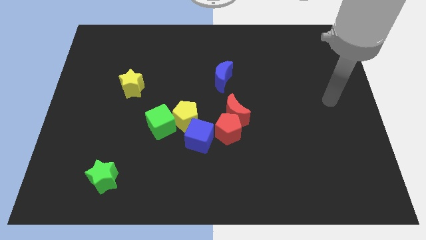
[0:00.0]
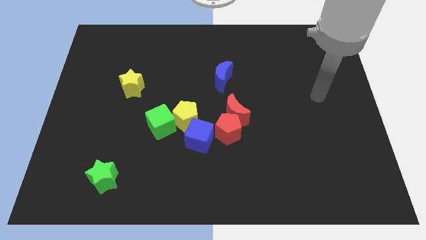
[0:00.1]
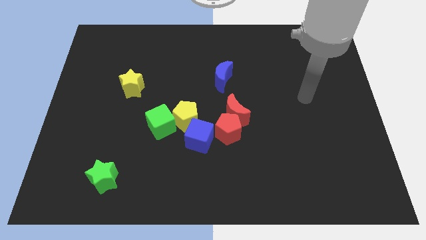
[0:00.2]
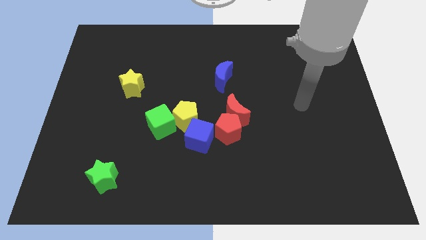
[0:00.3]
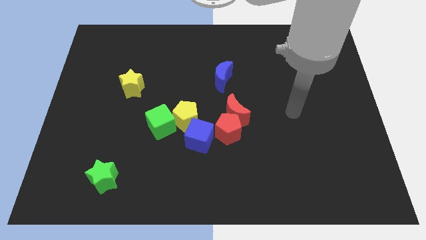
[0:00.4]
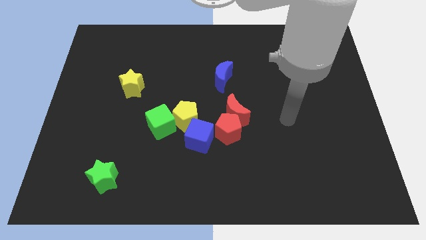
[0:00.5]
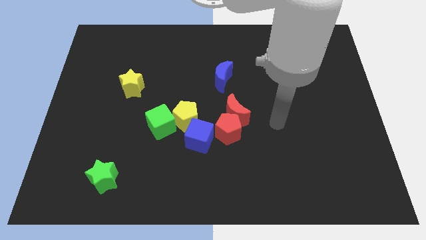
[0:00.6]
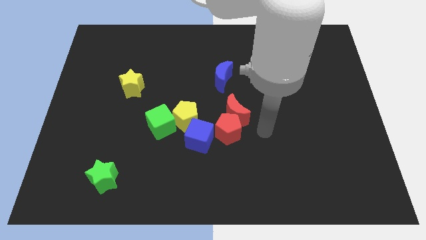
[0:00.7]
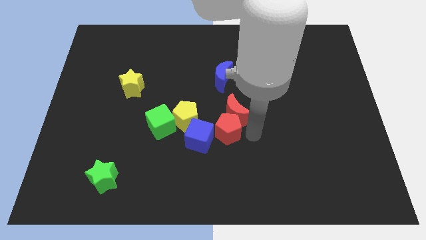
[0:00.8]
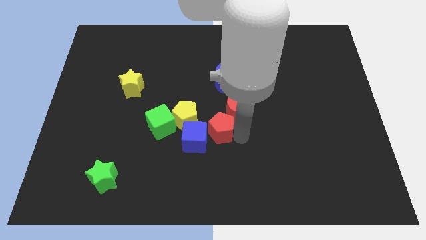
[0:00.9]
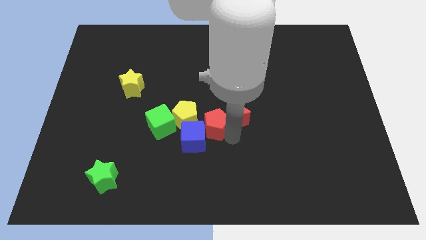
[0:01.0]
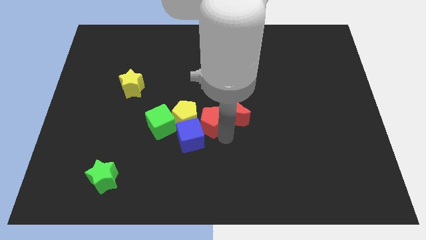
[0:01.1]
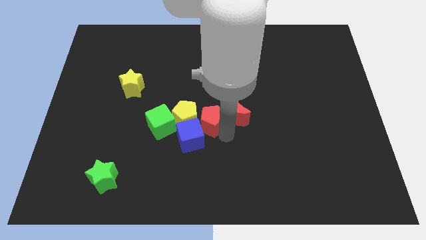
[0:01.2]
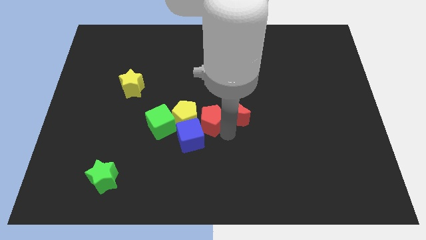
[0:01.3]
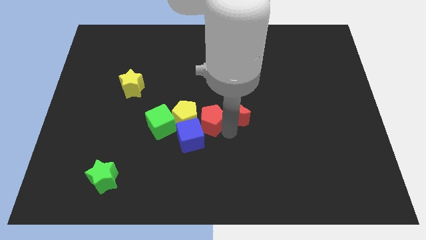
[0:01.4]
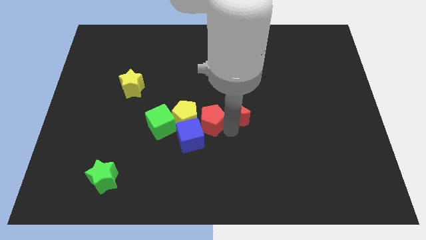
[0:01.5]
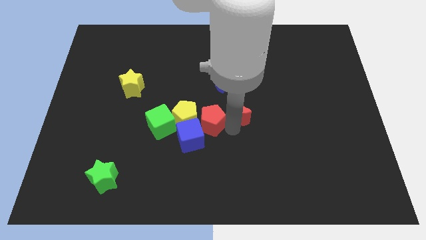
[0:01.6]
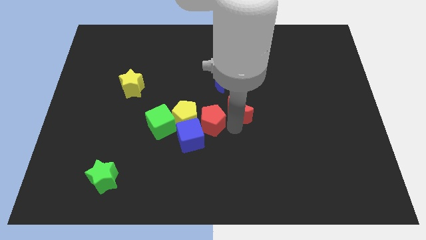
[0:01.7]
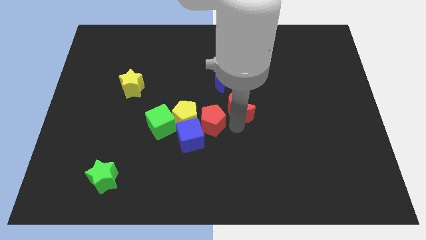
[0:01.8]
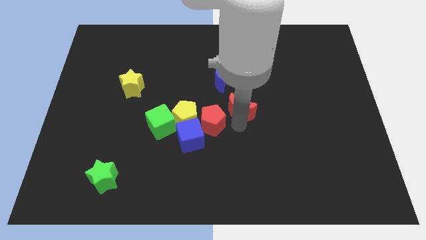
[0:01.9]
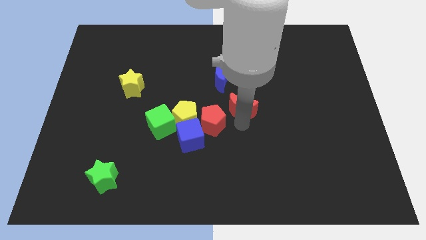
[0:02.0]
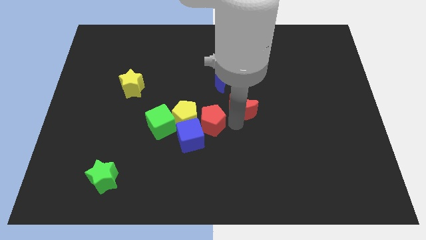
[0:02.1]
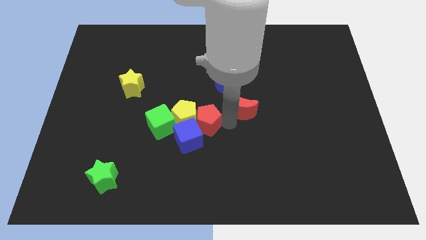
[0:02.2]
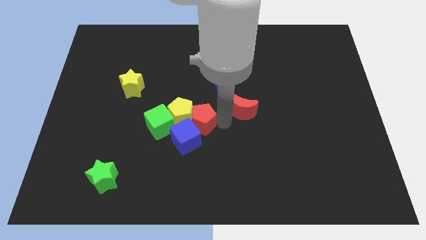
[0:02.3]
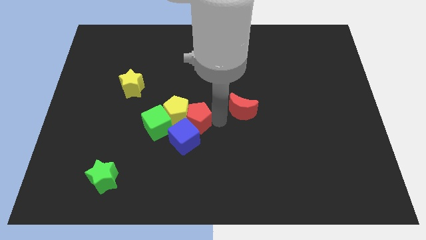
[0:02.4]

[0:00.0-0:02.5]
separate the red moon from the red pentagon

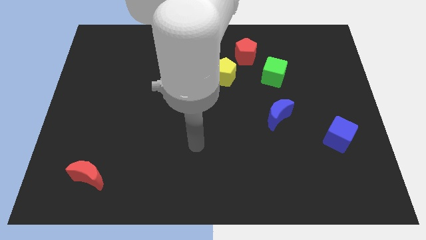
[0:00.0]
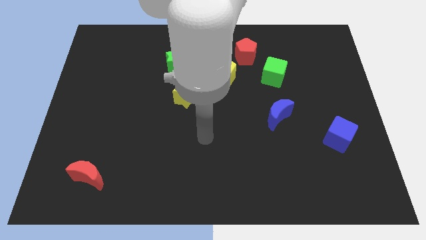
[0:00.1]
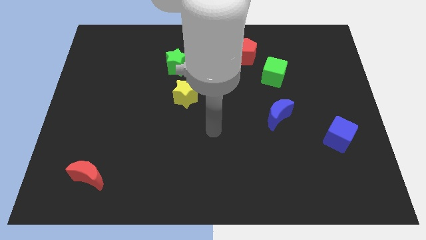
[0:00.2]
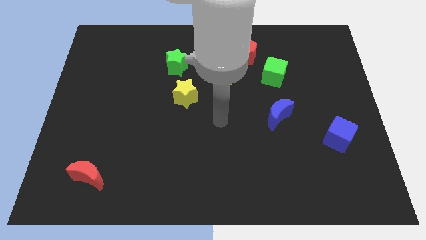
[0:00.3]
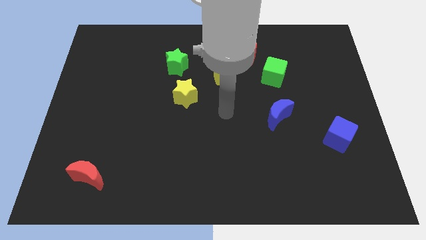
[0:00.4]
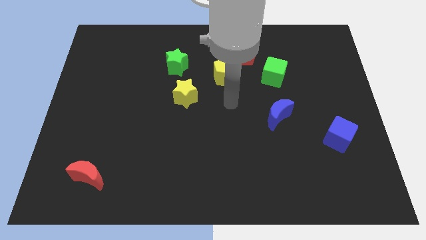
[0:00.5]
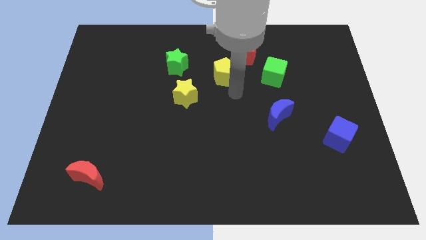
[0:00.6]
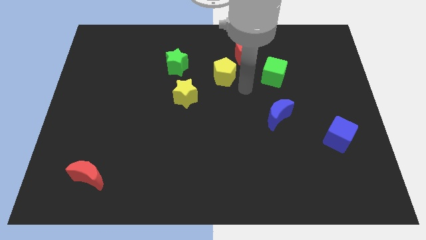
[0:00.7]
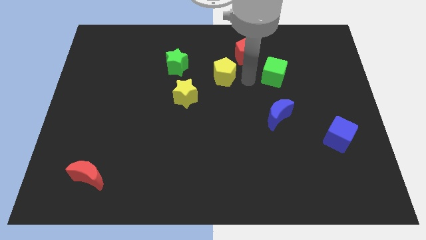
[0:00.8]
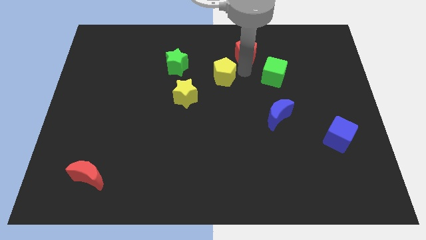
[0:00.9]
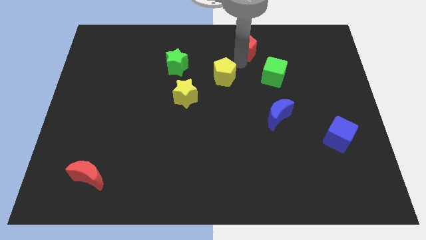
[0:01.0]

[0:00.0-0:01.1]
pull the yellow pentagon apart from the red pentagon

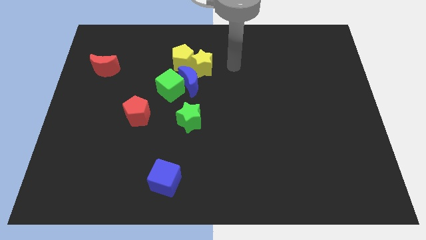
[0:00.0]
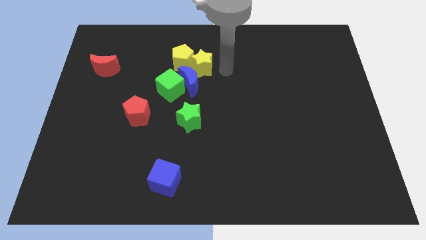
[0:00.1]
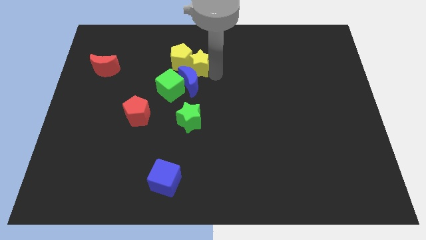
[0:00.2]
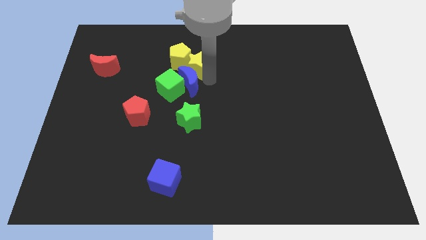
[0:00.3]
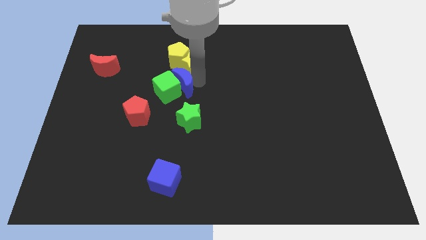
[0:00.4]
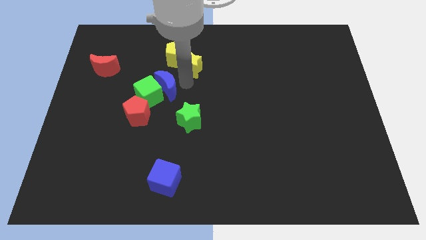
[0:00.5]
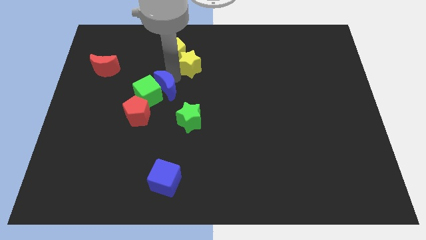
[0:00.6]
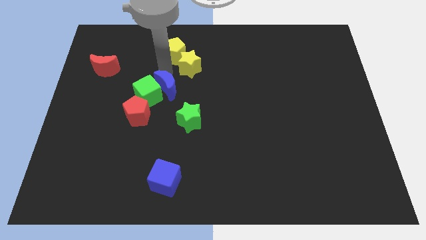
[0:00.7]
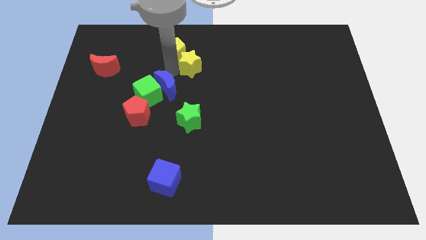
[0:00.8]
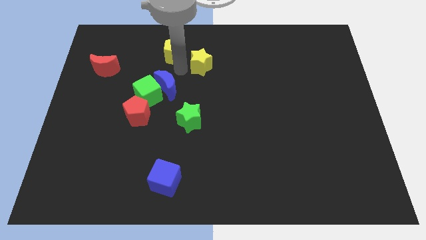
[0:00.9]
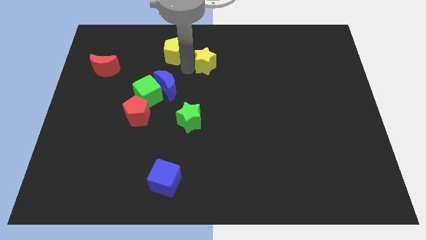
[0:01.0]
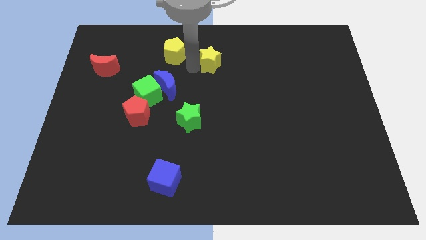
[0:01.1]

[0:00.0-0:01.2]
move the yellow star away from the yellow pentagon and blue moon

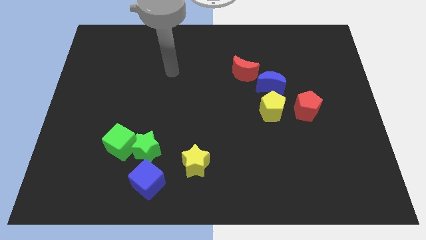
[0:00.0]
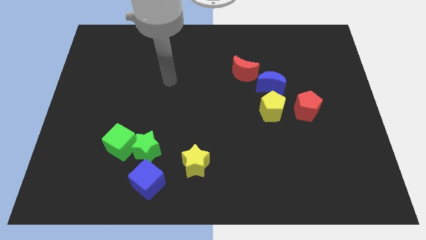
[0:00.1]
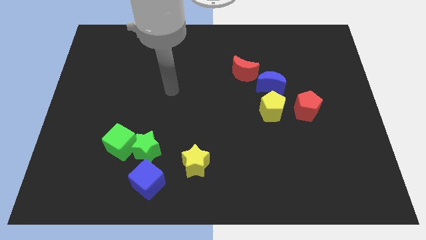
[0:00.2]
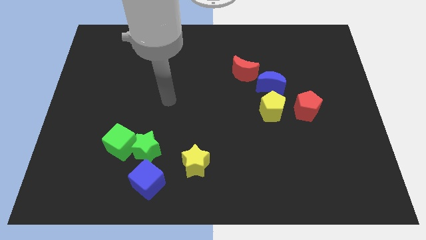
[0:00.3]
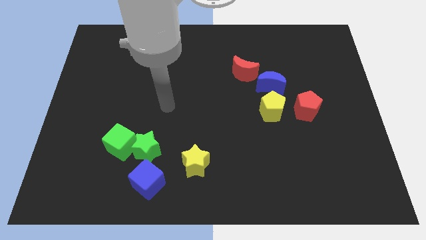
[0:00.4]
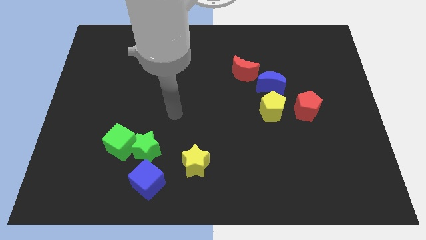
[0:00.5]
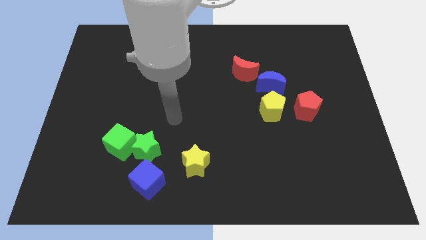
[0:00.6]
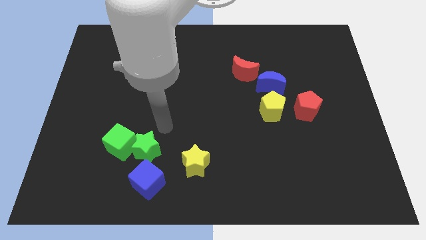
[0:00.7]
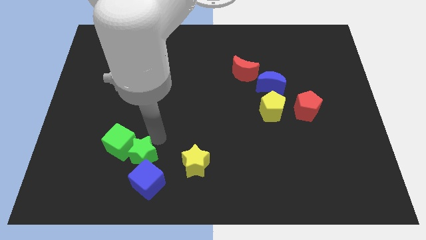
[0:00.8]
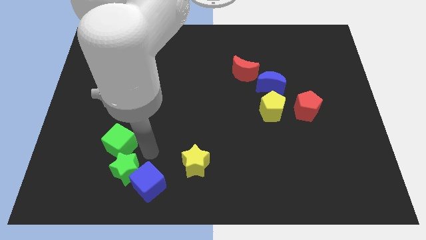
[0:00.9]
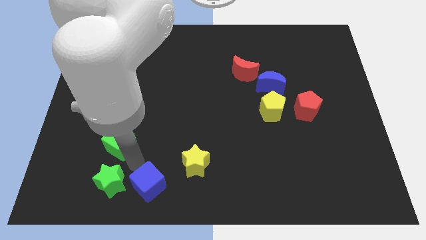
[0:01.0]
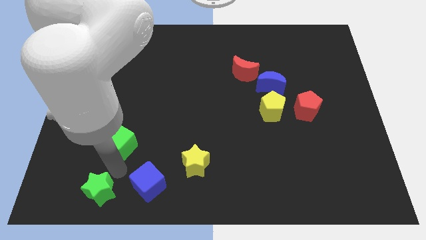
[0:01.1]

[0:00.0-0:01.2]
separate the green cube from the green star

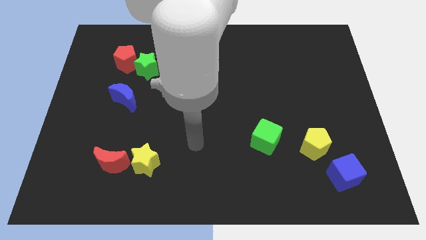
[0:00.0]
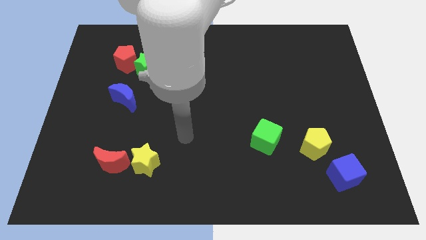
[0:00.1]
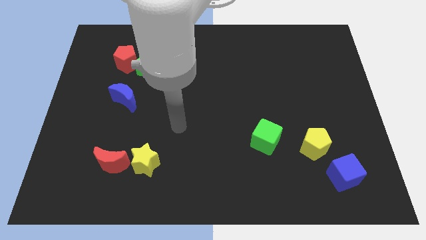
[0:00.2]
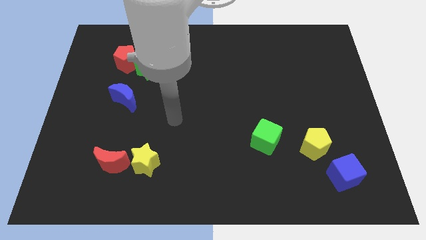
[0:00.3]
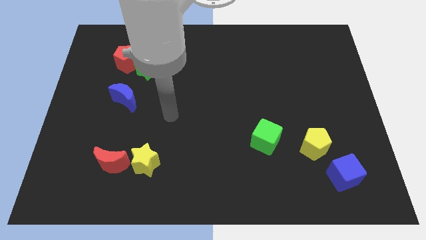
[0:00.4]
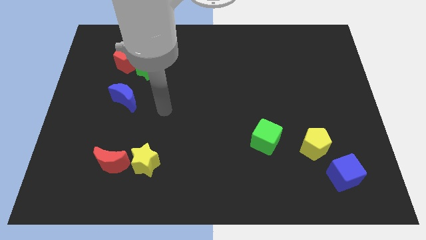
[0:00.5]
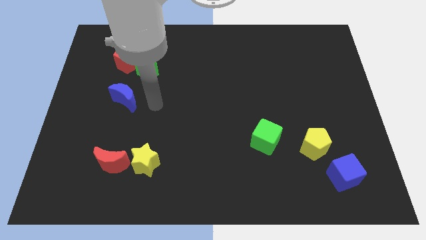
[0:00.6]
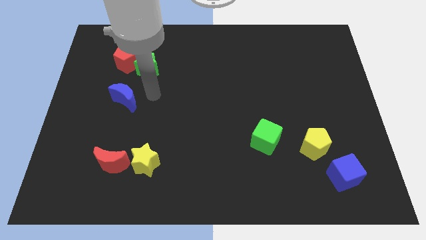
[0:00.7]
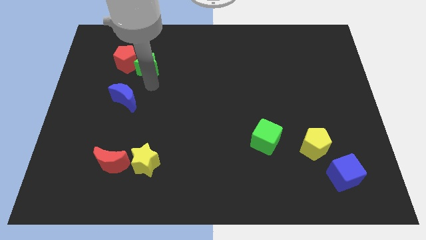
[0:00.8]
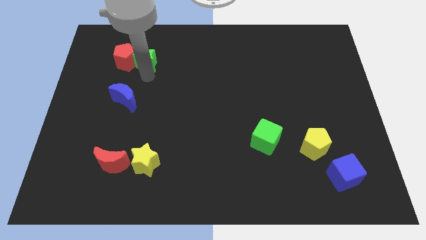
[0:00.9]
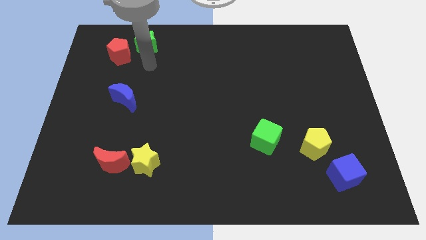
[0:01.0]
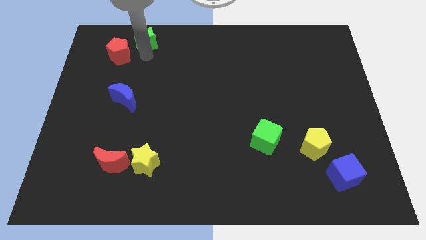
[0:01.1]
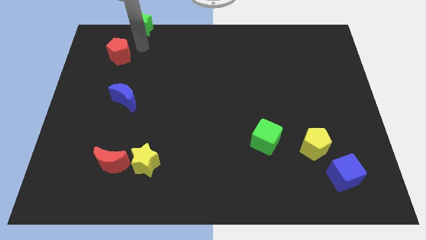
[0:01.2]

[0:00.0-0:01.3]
move the red pentagon away from the green star

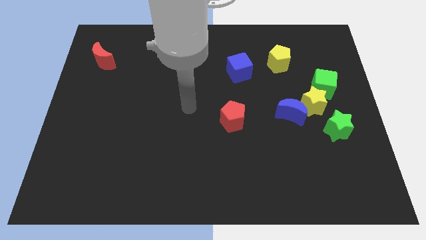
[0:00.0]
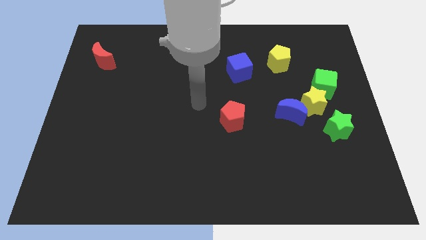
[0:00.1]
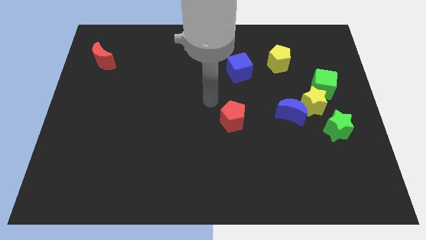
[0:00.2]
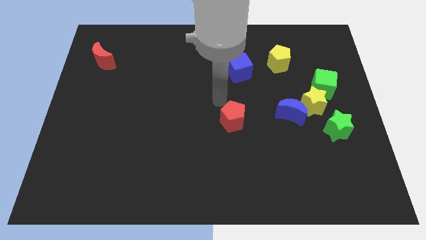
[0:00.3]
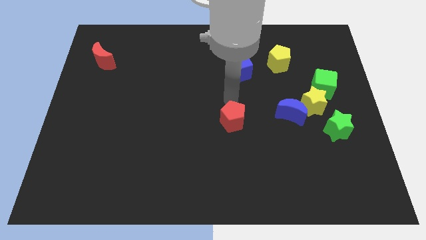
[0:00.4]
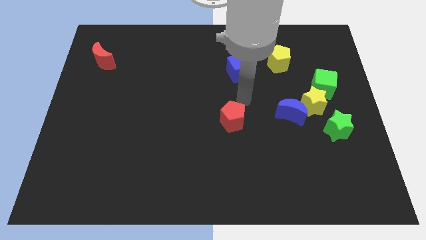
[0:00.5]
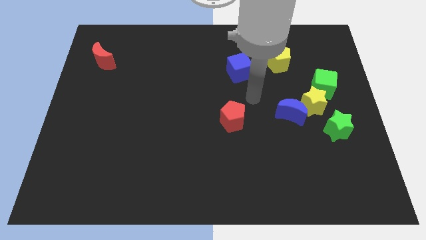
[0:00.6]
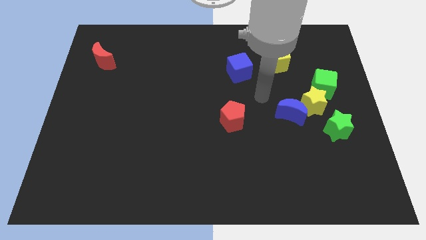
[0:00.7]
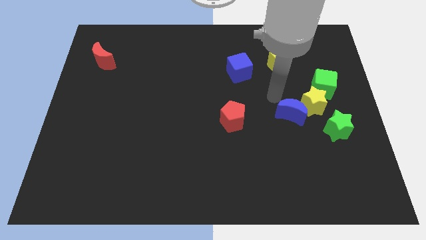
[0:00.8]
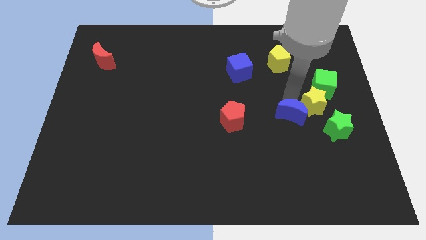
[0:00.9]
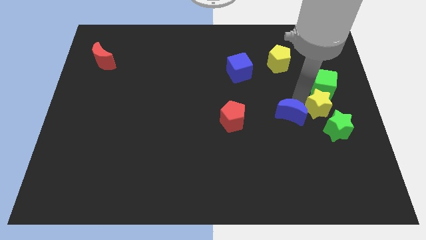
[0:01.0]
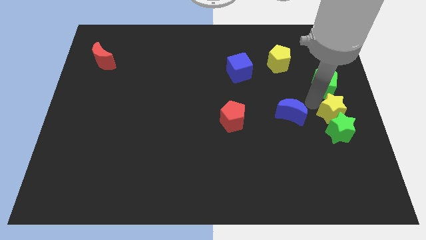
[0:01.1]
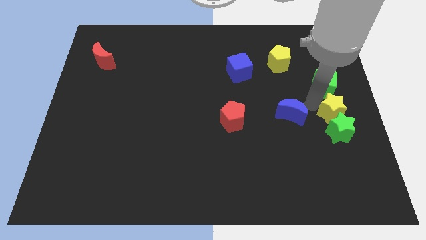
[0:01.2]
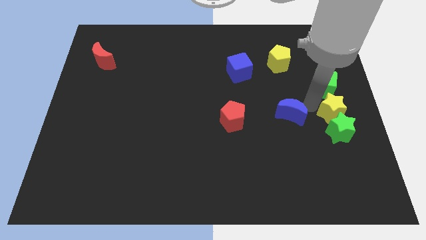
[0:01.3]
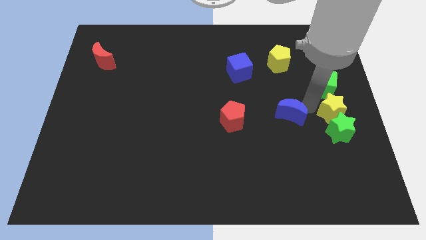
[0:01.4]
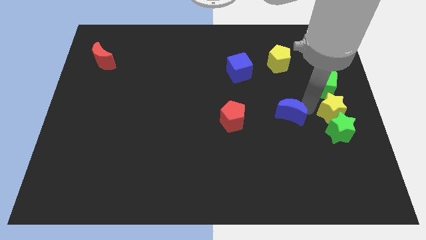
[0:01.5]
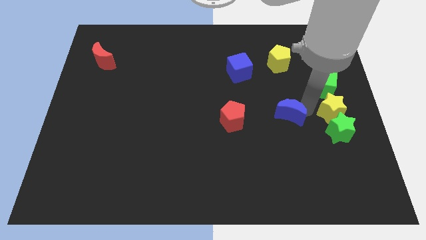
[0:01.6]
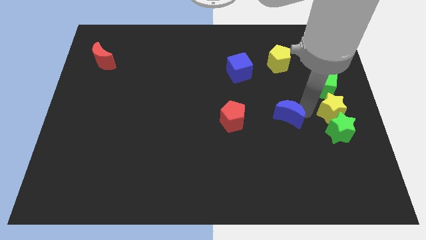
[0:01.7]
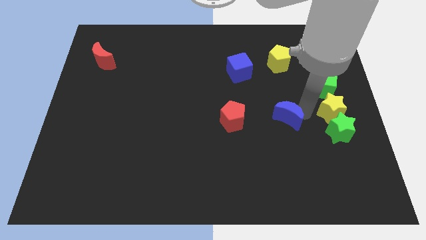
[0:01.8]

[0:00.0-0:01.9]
separate the blue moon from the yellow star
